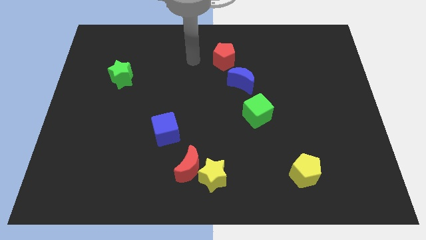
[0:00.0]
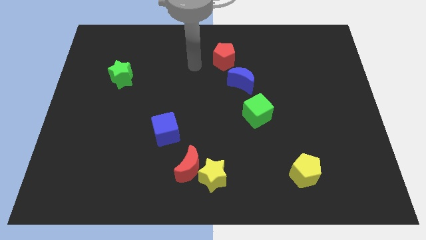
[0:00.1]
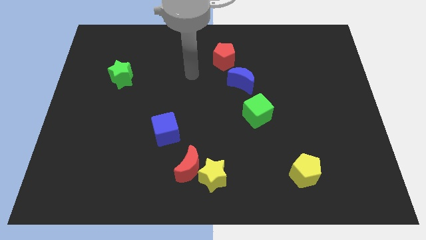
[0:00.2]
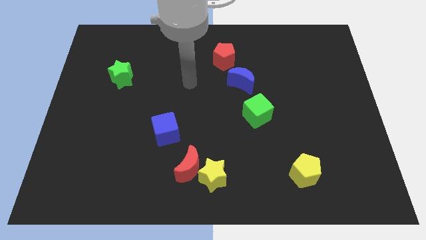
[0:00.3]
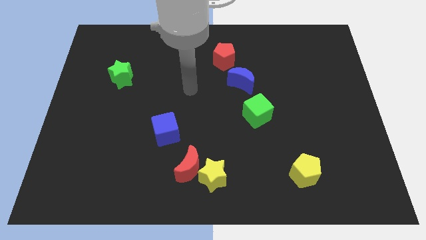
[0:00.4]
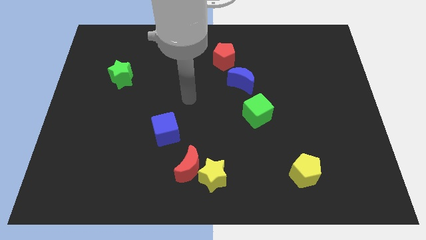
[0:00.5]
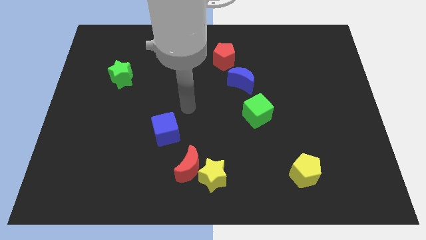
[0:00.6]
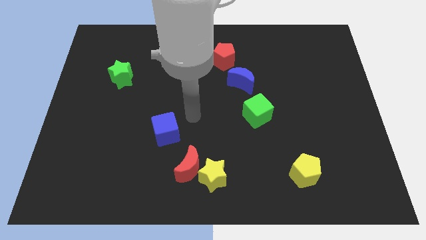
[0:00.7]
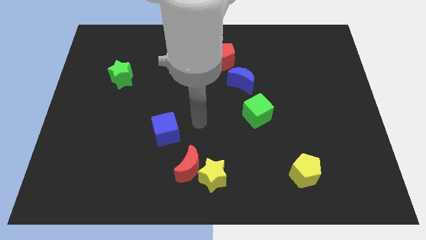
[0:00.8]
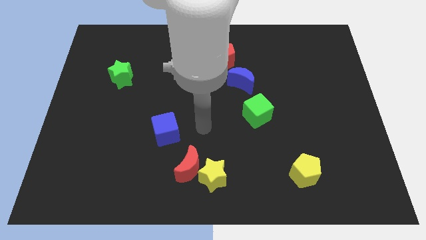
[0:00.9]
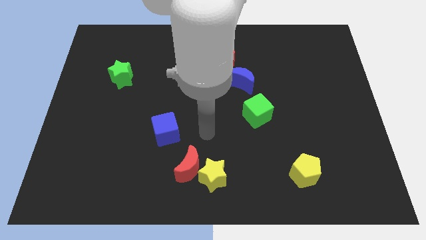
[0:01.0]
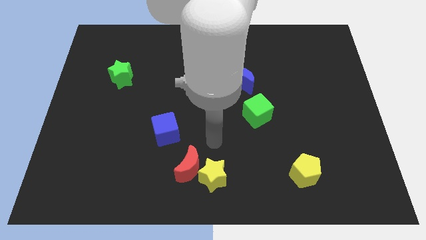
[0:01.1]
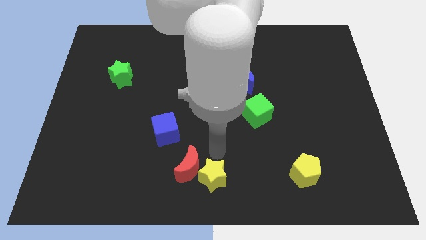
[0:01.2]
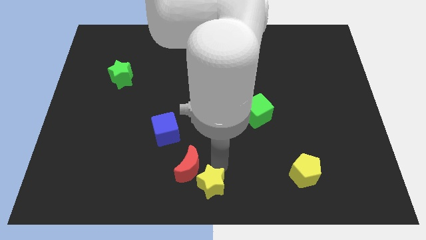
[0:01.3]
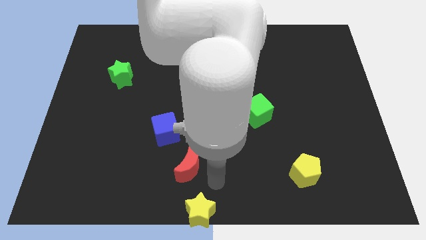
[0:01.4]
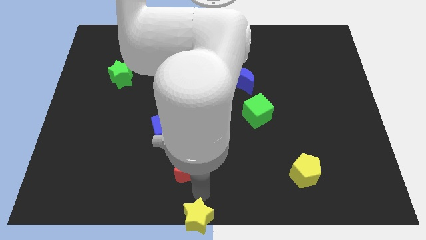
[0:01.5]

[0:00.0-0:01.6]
move the red moon away from the yellow star

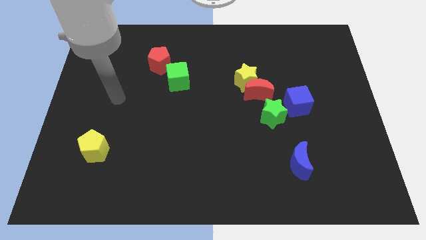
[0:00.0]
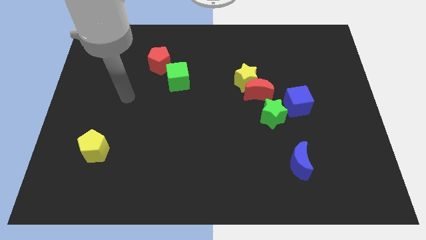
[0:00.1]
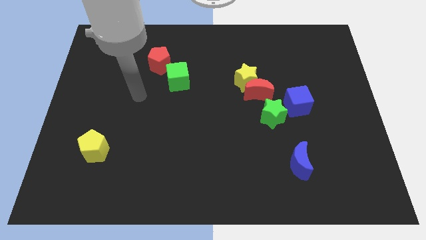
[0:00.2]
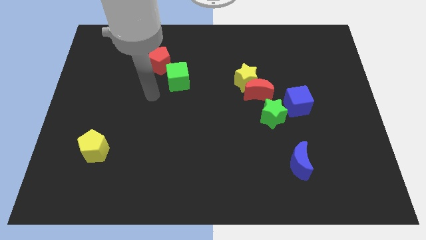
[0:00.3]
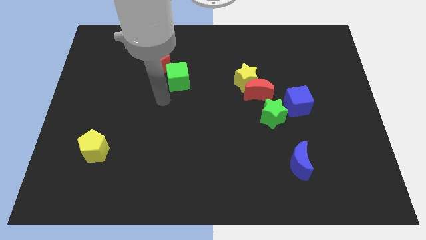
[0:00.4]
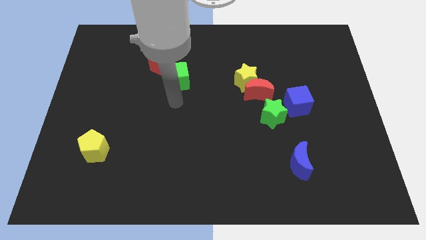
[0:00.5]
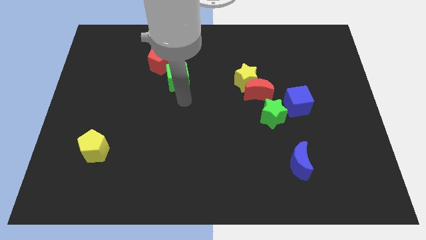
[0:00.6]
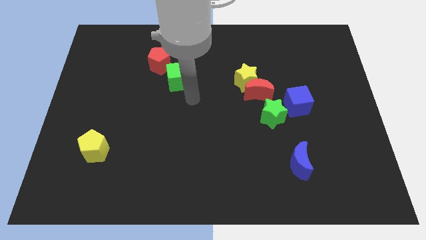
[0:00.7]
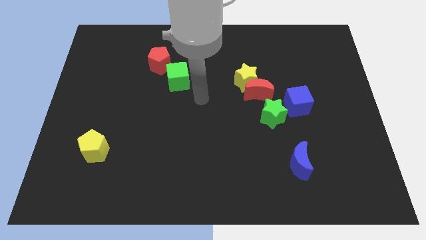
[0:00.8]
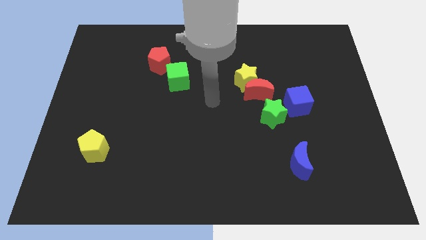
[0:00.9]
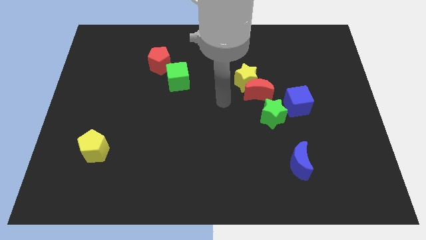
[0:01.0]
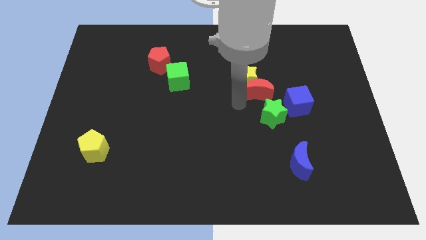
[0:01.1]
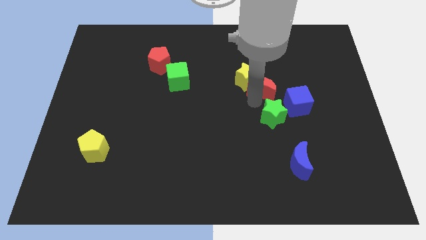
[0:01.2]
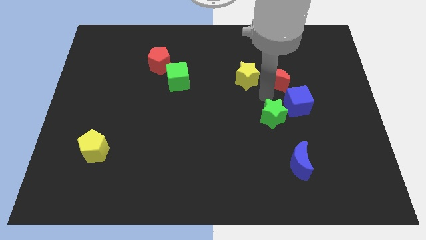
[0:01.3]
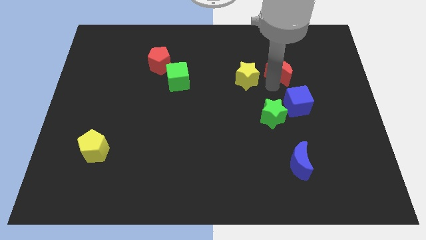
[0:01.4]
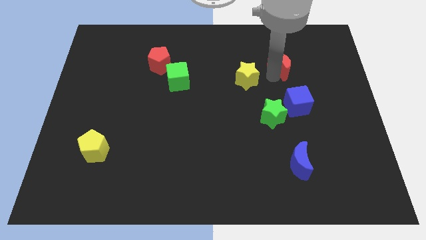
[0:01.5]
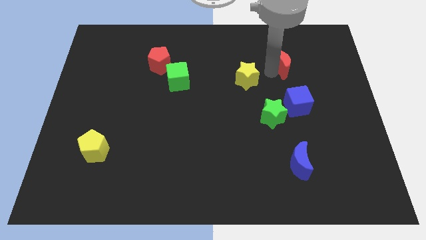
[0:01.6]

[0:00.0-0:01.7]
pull the yellow star apart from the red moon

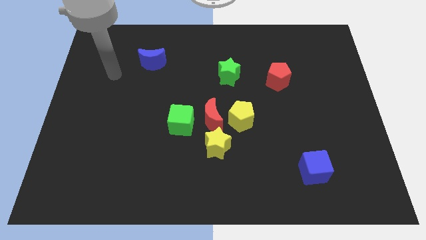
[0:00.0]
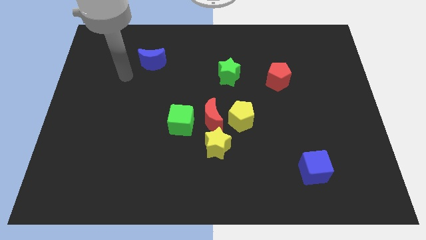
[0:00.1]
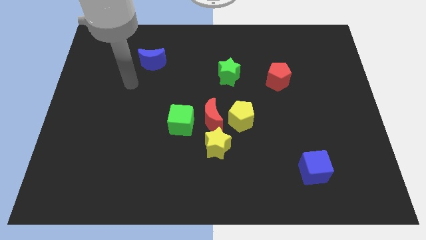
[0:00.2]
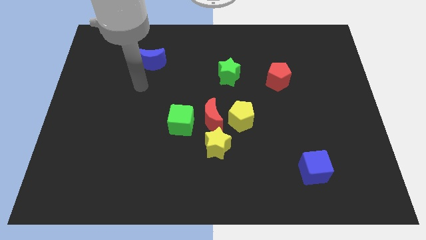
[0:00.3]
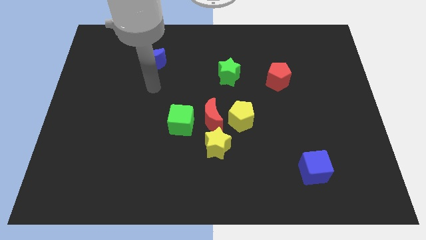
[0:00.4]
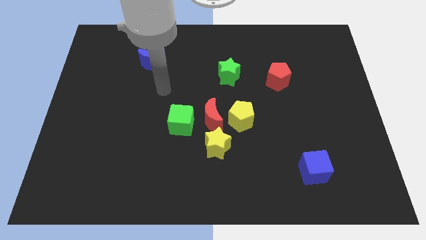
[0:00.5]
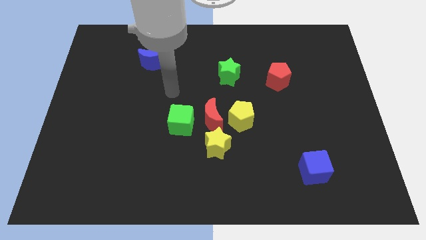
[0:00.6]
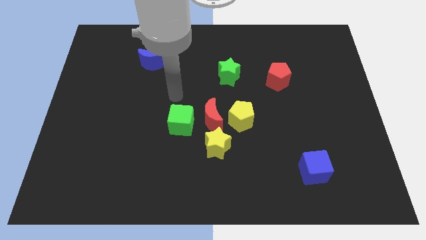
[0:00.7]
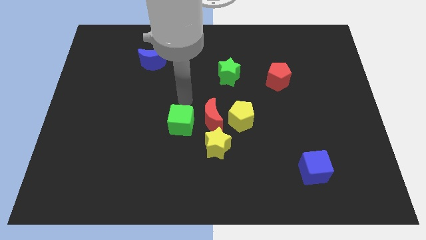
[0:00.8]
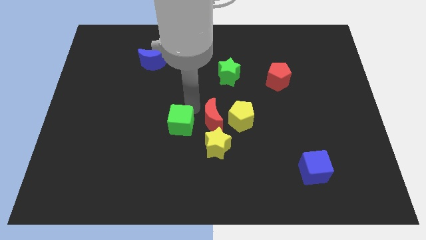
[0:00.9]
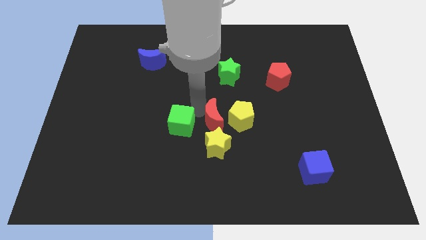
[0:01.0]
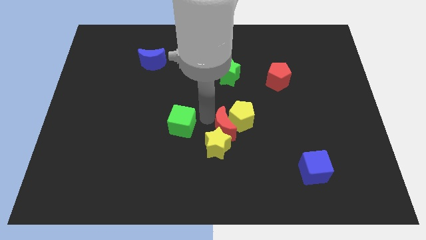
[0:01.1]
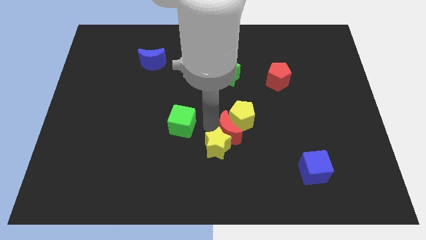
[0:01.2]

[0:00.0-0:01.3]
move the green cube away from the red moon

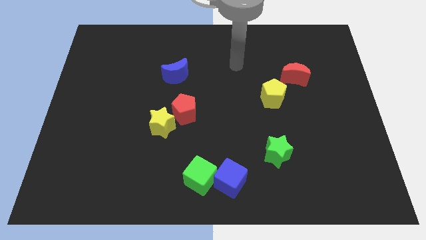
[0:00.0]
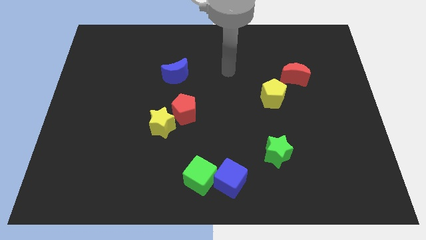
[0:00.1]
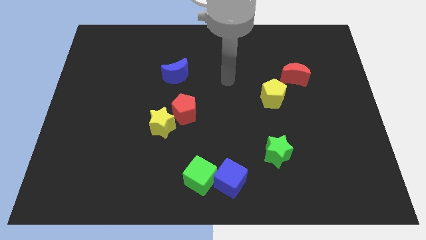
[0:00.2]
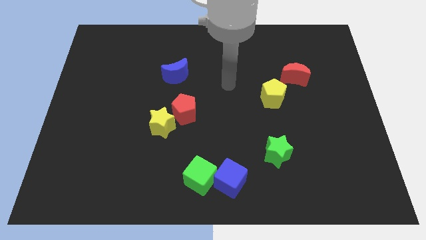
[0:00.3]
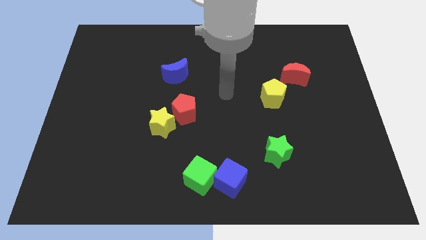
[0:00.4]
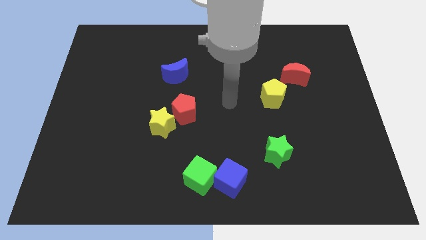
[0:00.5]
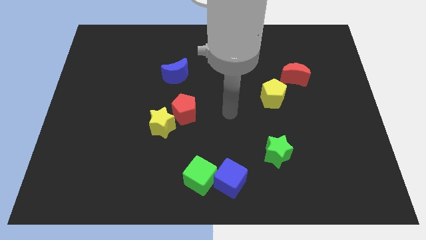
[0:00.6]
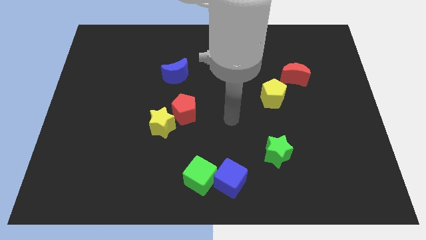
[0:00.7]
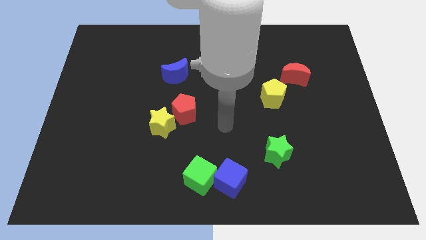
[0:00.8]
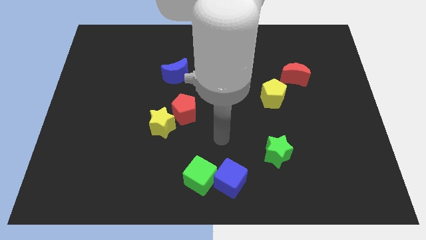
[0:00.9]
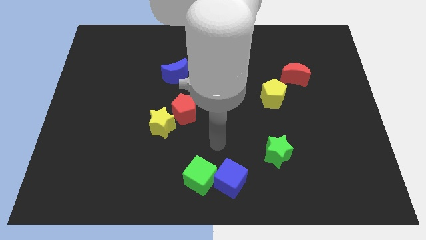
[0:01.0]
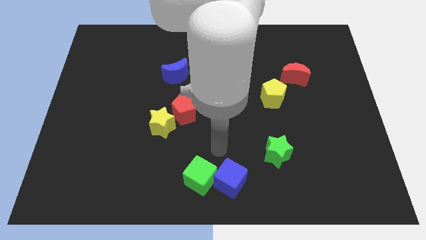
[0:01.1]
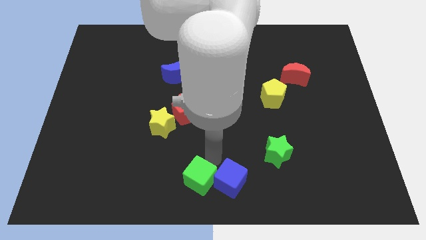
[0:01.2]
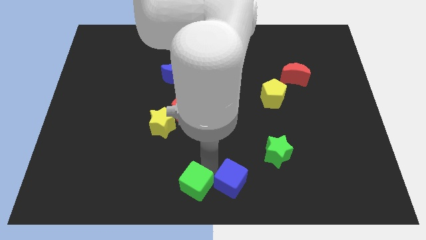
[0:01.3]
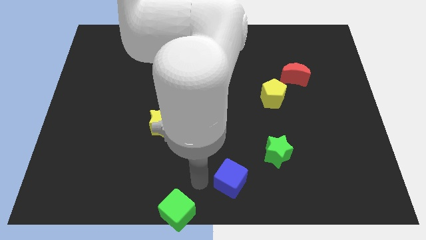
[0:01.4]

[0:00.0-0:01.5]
pull the blue cube apart from the green cube

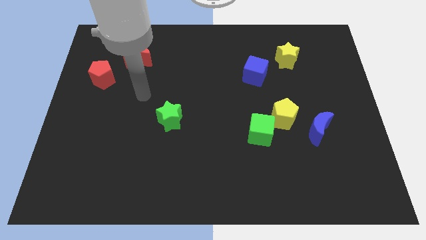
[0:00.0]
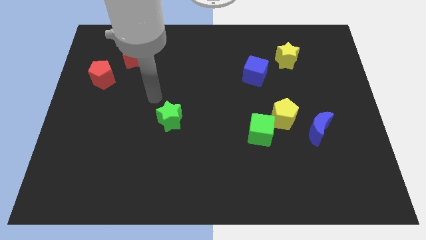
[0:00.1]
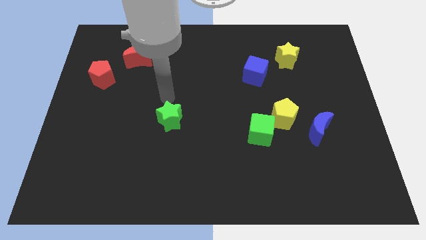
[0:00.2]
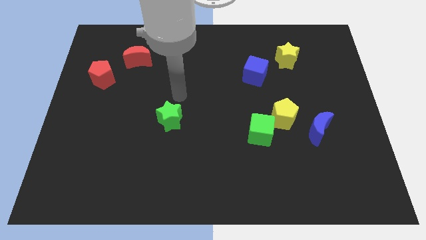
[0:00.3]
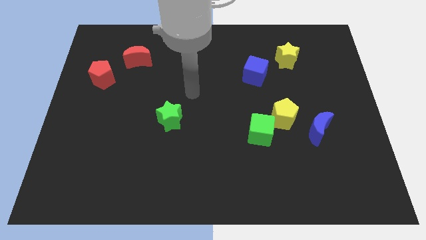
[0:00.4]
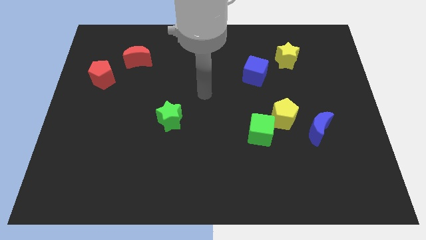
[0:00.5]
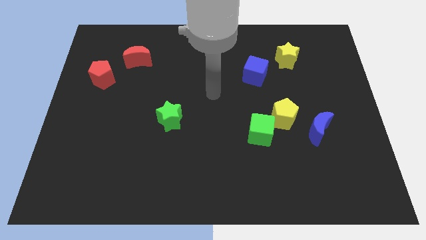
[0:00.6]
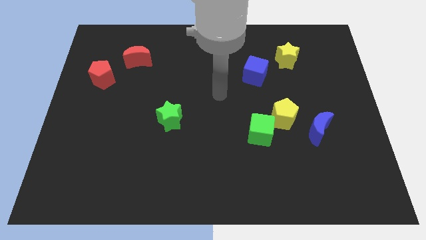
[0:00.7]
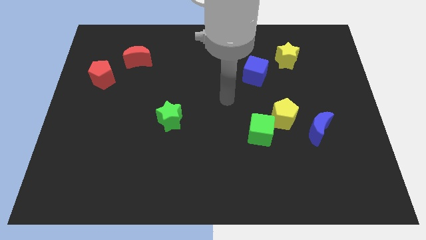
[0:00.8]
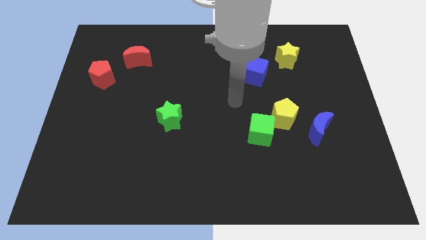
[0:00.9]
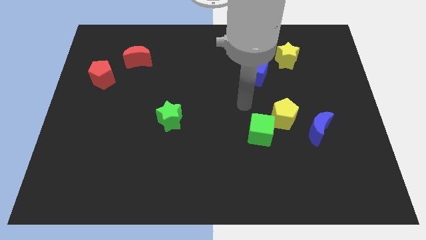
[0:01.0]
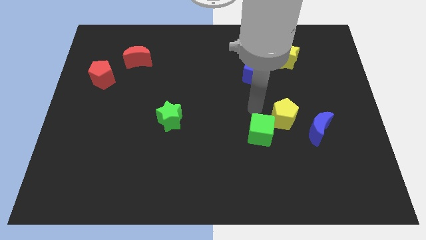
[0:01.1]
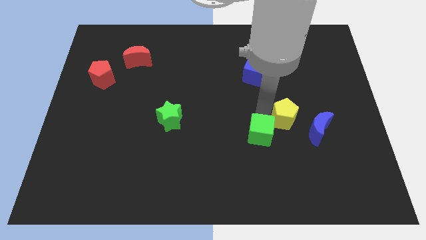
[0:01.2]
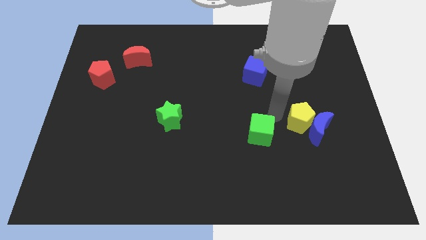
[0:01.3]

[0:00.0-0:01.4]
move the green cube away from the yellow pentagon

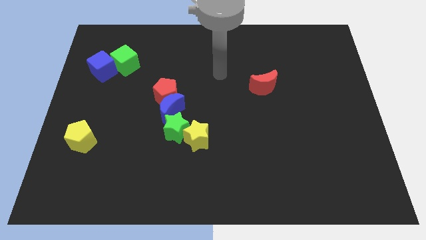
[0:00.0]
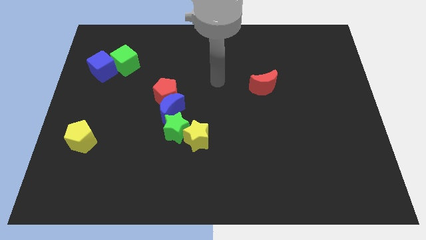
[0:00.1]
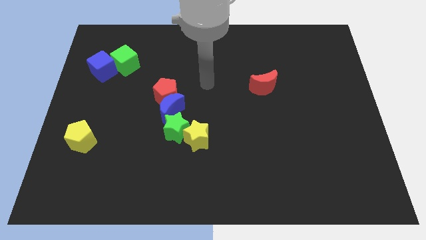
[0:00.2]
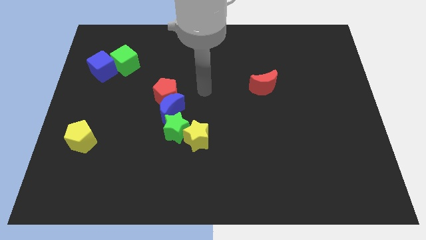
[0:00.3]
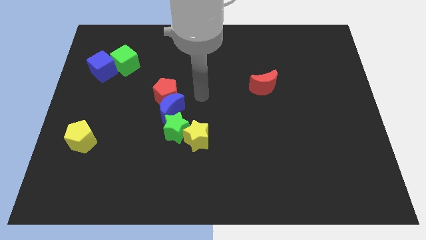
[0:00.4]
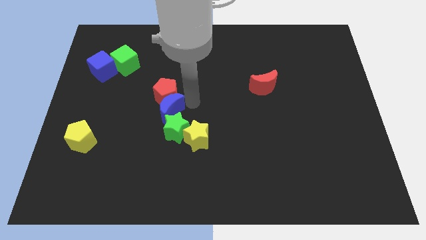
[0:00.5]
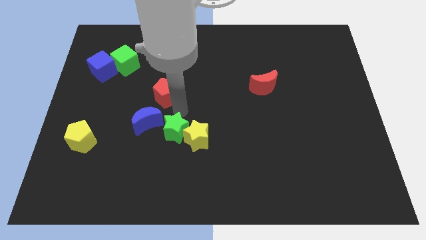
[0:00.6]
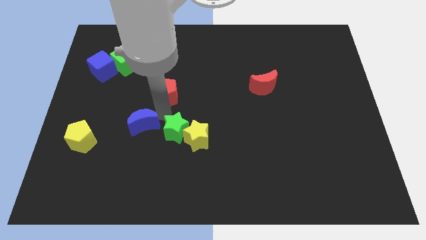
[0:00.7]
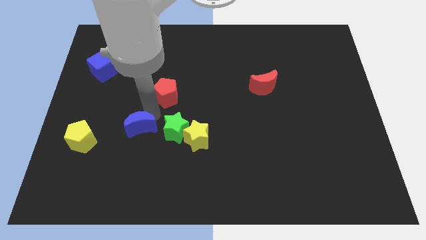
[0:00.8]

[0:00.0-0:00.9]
separate the red pentagon from the blue moon

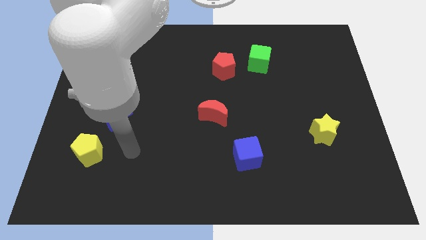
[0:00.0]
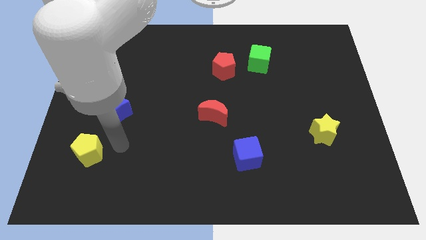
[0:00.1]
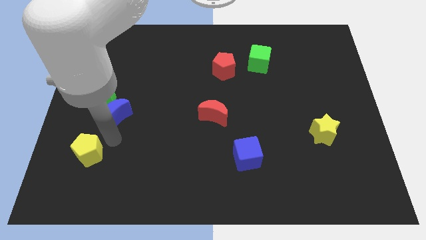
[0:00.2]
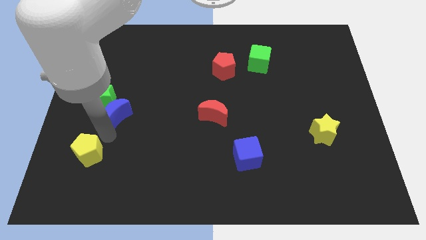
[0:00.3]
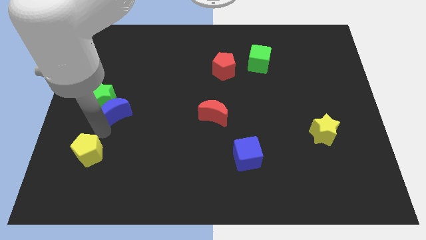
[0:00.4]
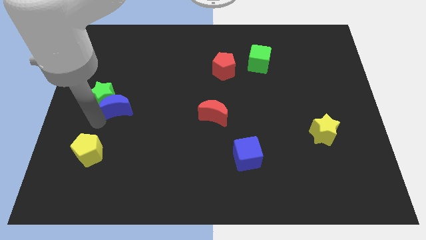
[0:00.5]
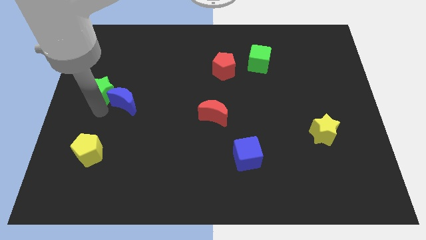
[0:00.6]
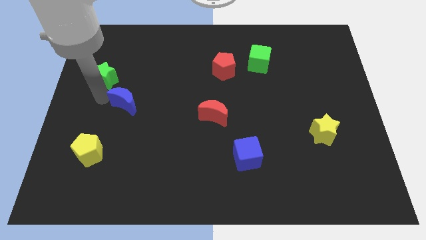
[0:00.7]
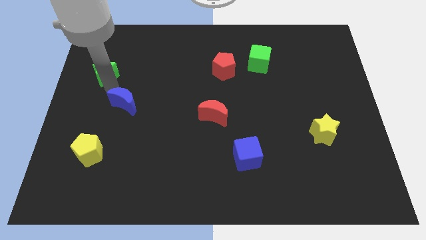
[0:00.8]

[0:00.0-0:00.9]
pull the blue moon apart from the green star

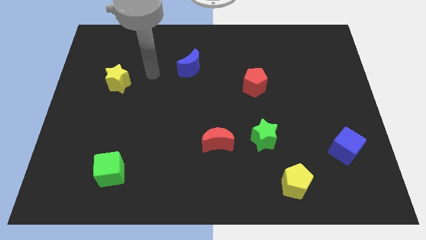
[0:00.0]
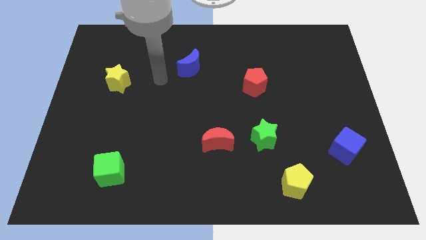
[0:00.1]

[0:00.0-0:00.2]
separate the red moon from the green star
